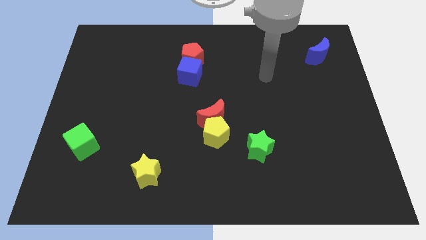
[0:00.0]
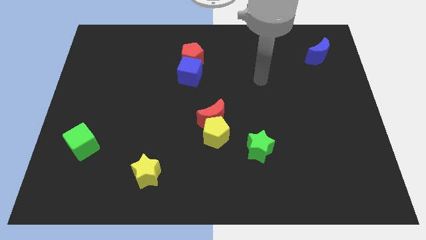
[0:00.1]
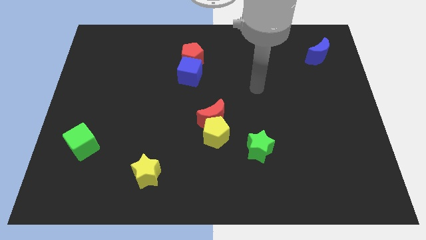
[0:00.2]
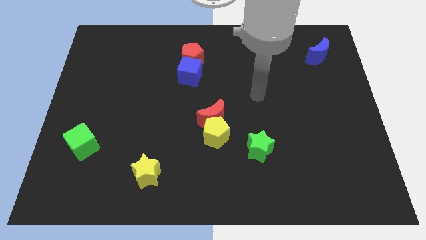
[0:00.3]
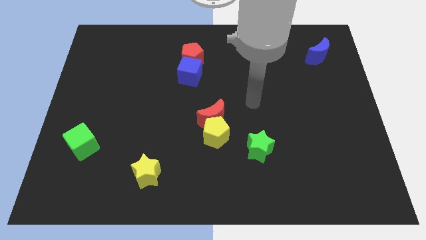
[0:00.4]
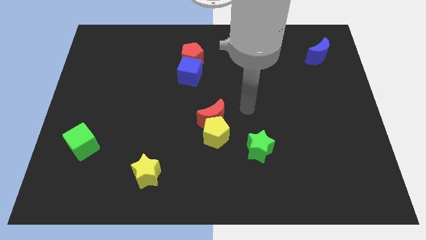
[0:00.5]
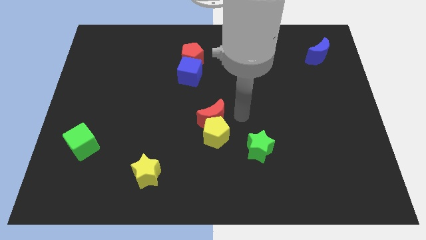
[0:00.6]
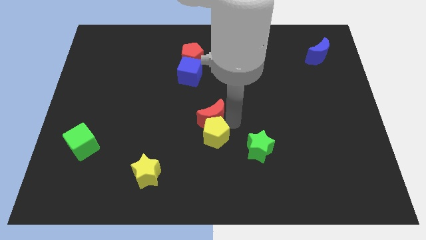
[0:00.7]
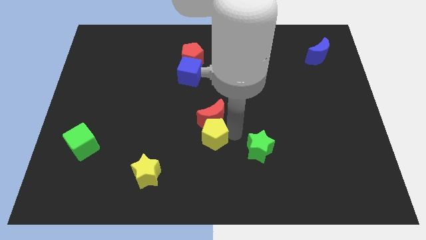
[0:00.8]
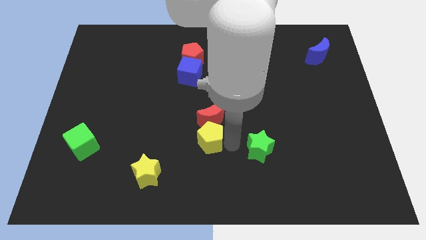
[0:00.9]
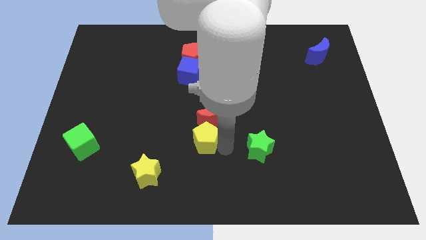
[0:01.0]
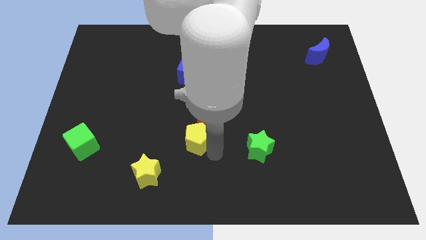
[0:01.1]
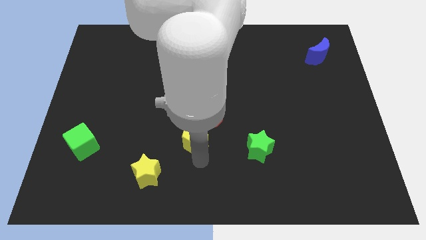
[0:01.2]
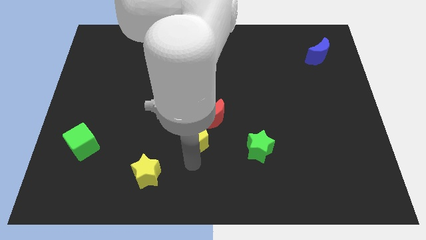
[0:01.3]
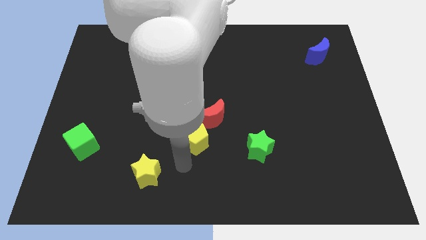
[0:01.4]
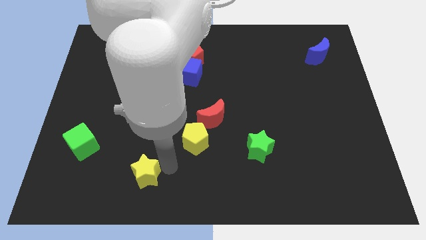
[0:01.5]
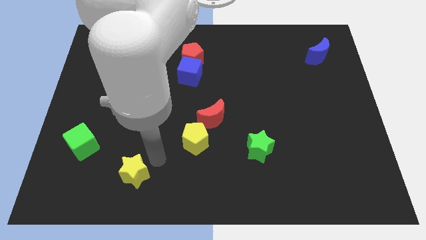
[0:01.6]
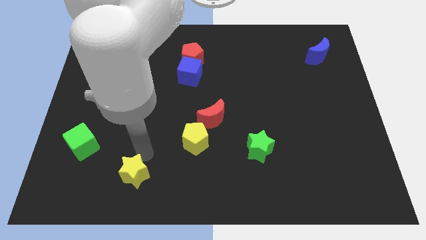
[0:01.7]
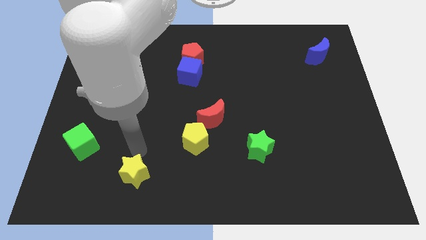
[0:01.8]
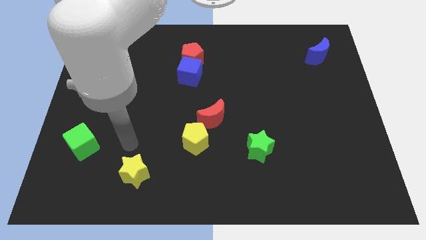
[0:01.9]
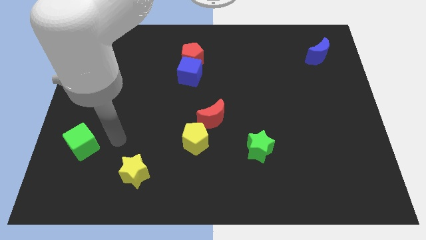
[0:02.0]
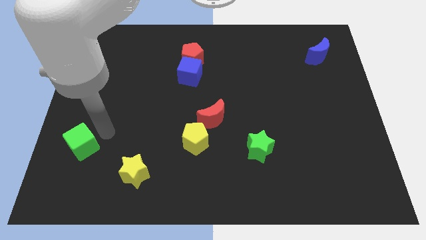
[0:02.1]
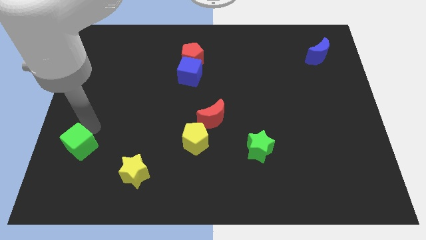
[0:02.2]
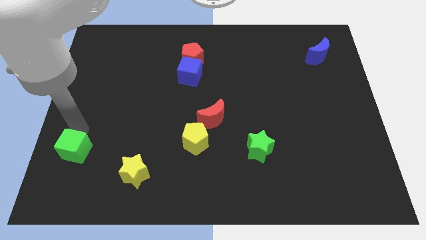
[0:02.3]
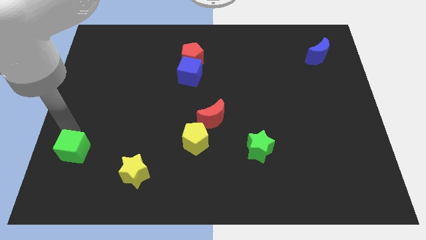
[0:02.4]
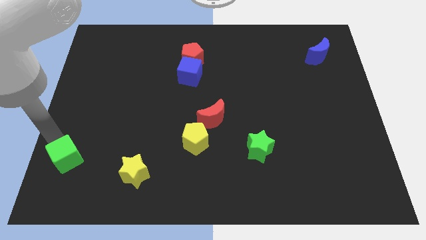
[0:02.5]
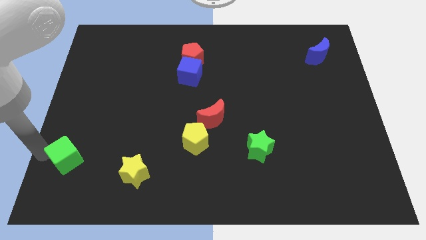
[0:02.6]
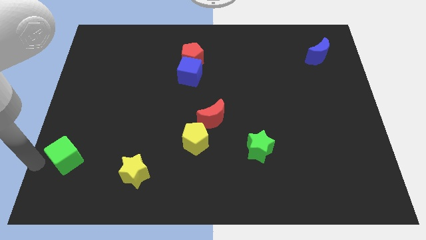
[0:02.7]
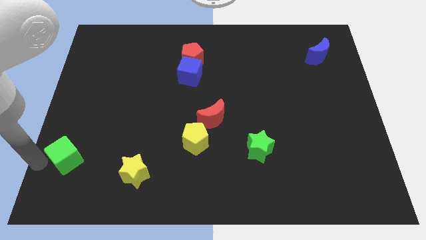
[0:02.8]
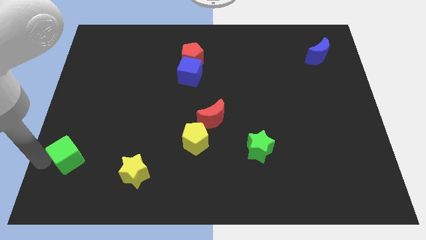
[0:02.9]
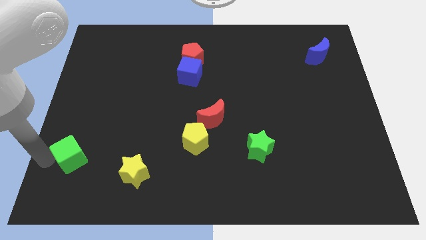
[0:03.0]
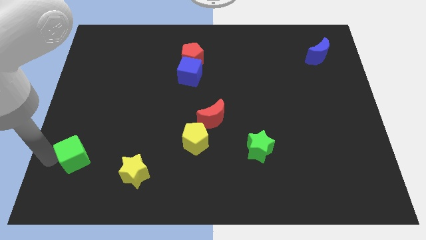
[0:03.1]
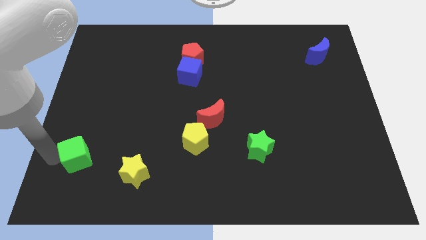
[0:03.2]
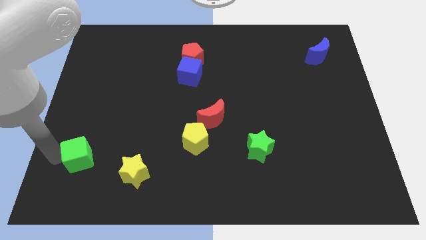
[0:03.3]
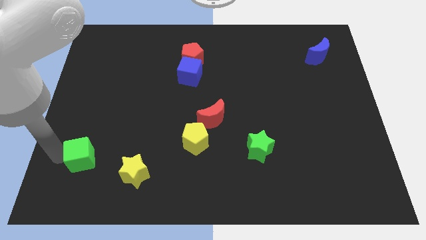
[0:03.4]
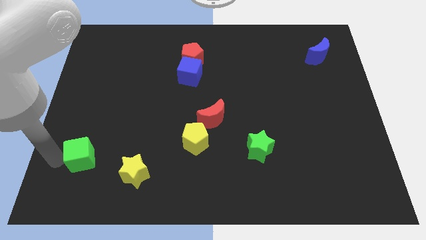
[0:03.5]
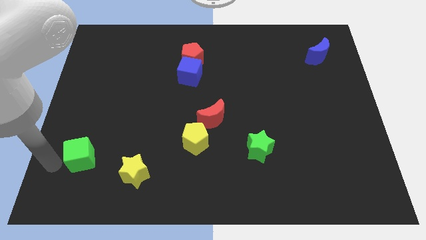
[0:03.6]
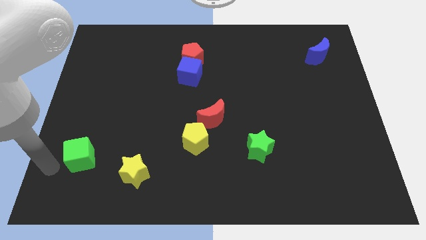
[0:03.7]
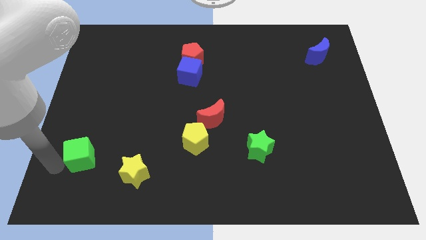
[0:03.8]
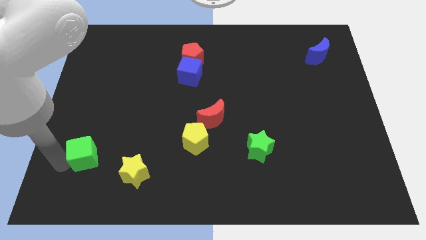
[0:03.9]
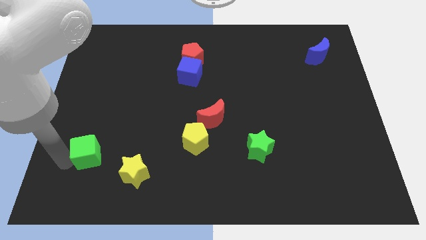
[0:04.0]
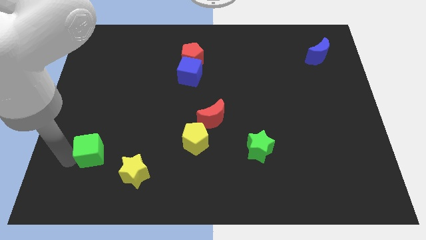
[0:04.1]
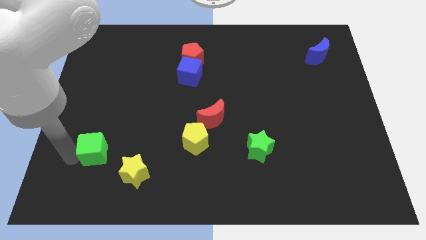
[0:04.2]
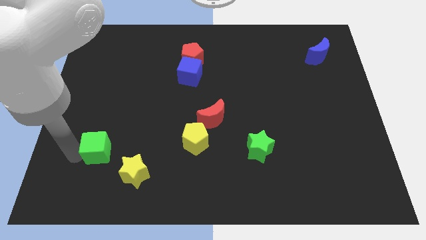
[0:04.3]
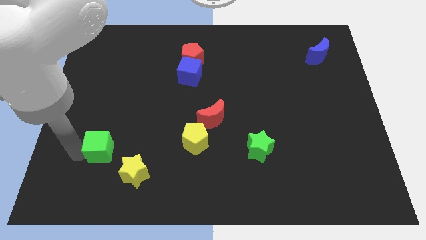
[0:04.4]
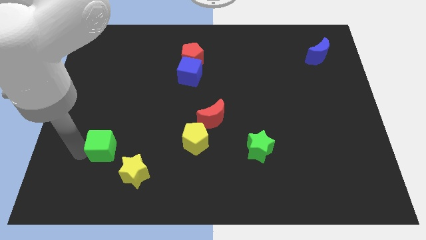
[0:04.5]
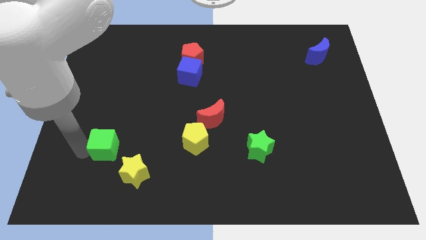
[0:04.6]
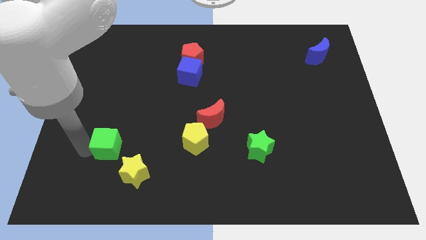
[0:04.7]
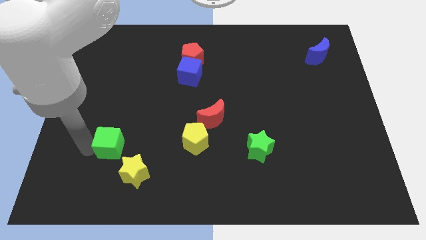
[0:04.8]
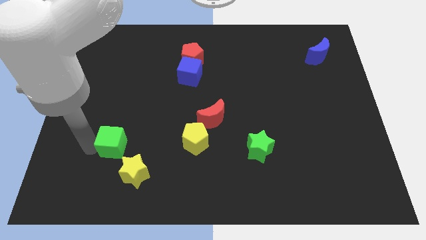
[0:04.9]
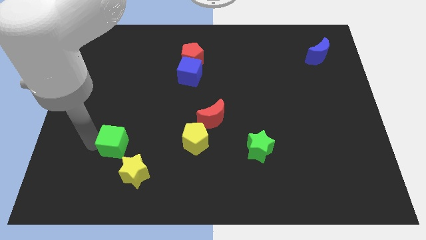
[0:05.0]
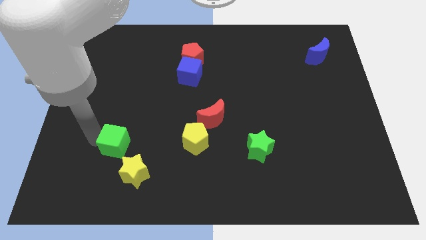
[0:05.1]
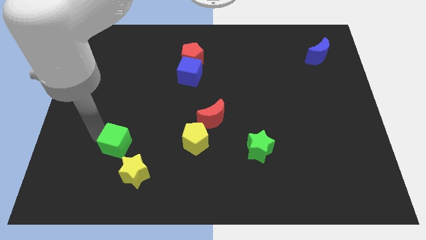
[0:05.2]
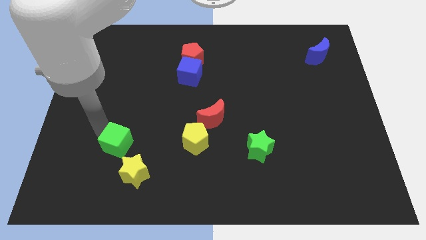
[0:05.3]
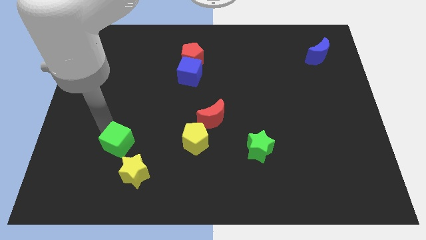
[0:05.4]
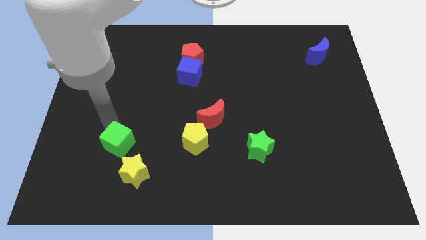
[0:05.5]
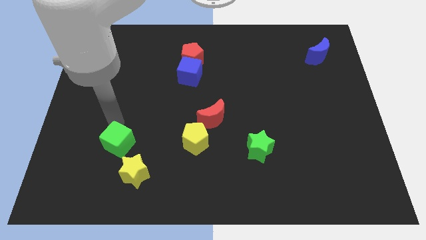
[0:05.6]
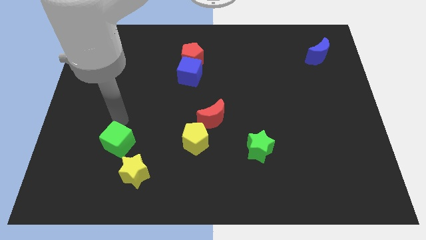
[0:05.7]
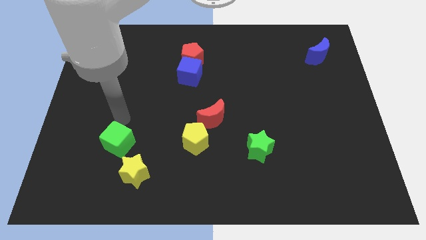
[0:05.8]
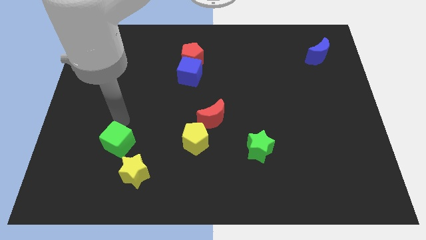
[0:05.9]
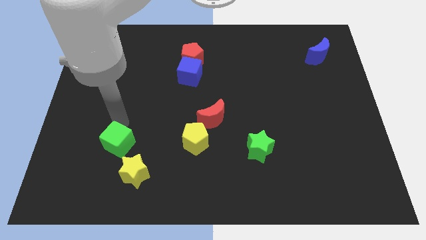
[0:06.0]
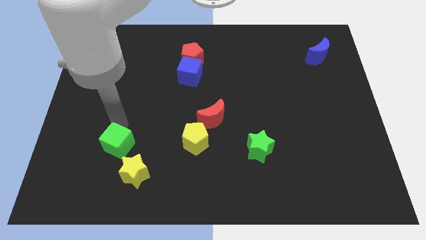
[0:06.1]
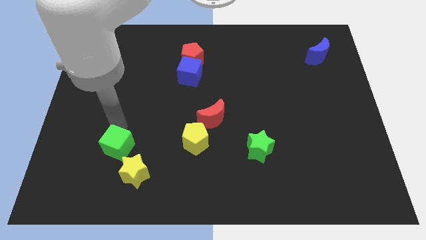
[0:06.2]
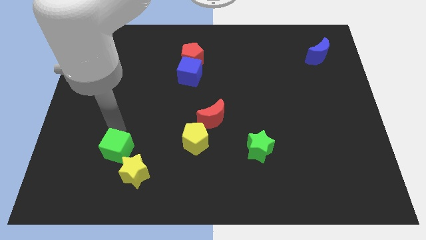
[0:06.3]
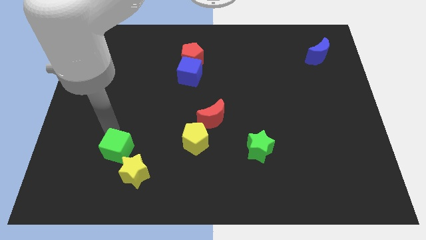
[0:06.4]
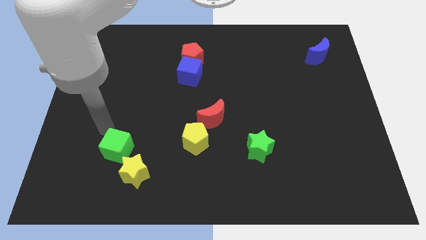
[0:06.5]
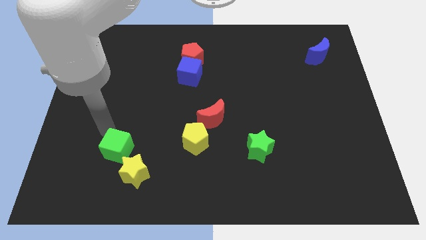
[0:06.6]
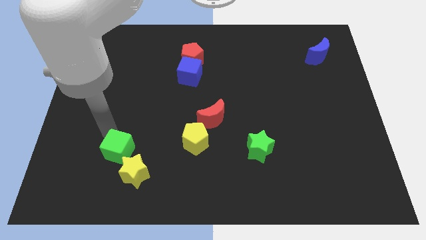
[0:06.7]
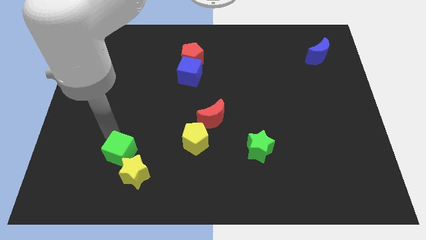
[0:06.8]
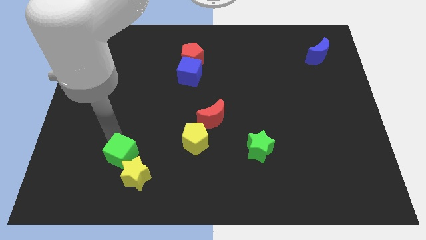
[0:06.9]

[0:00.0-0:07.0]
push the green cube to the yellow star

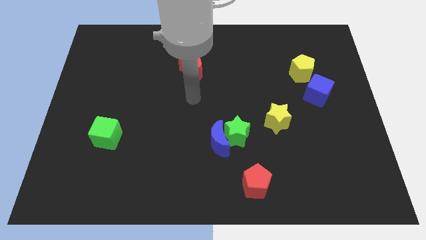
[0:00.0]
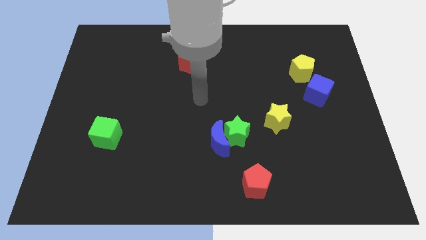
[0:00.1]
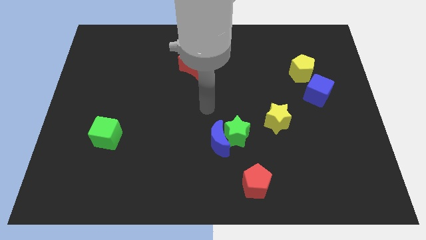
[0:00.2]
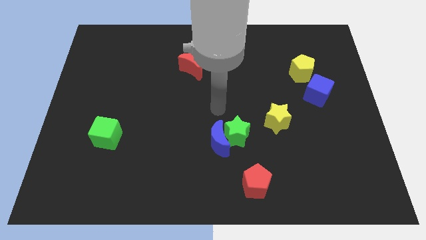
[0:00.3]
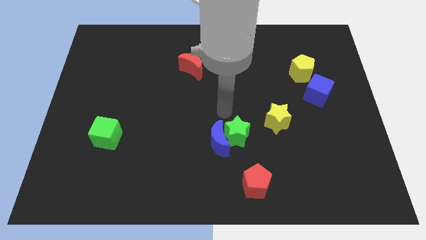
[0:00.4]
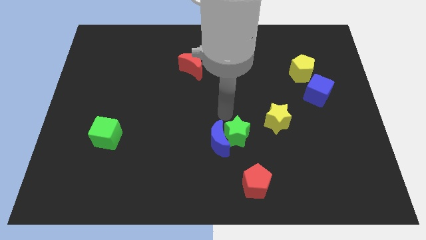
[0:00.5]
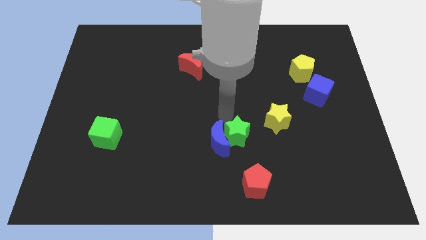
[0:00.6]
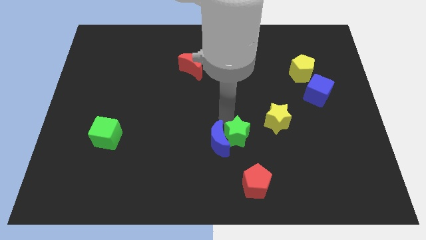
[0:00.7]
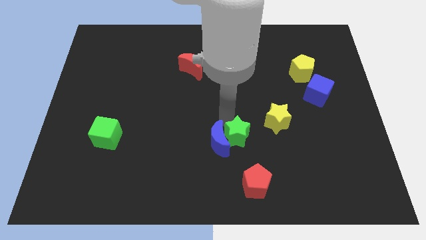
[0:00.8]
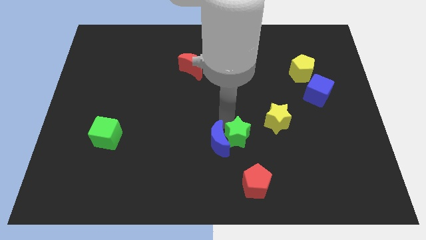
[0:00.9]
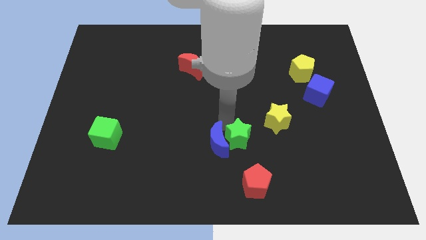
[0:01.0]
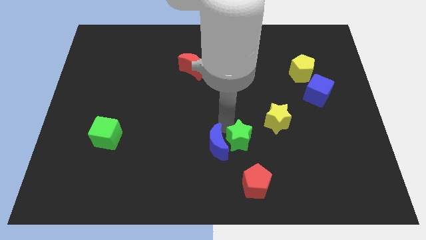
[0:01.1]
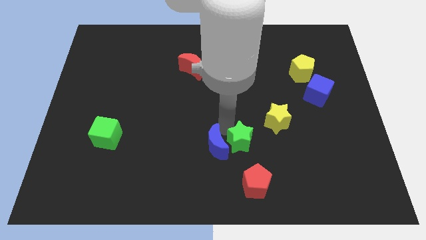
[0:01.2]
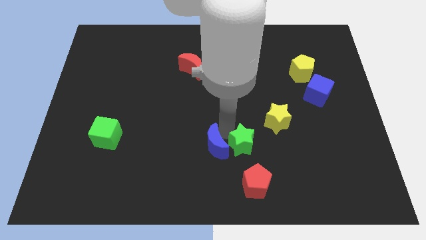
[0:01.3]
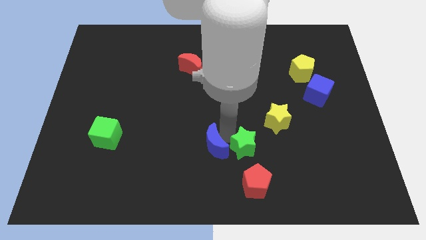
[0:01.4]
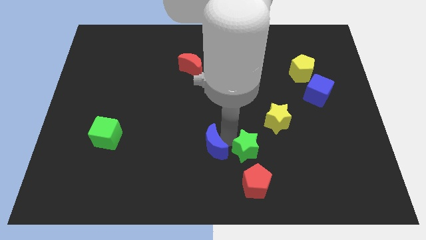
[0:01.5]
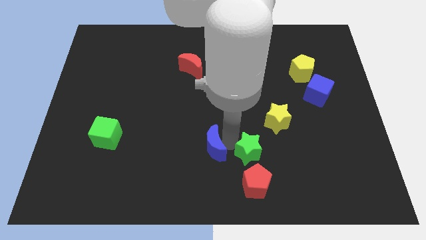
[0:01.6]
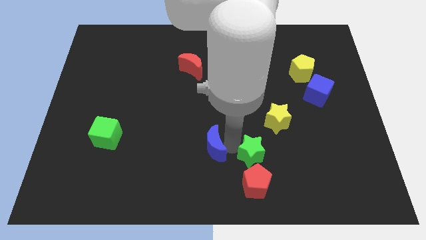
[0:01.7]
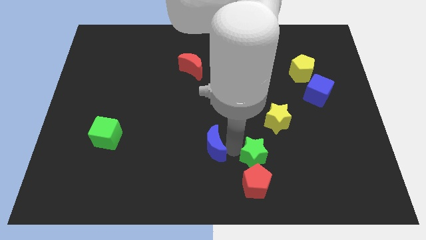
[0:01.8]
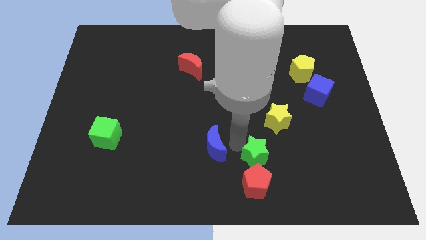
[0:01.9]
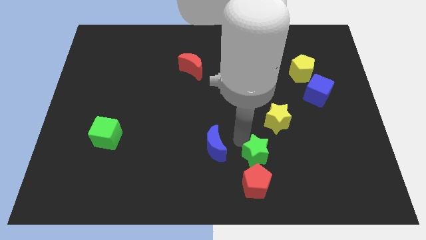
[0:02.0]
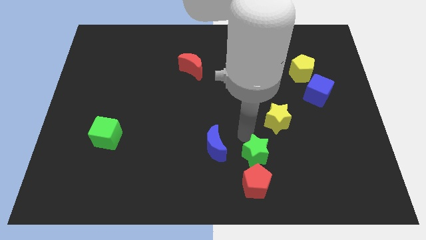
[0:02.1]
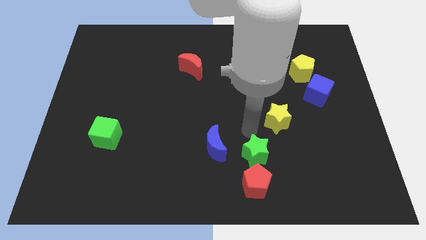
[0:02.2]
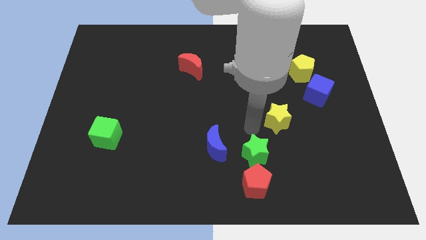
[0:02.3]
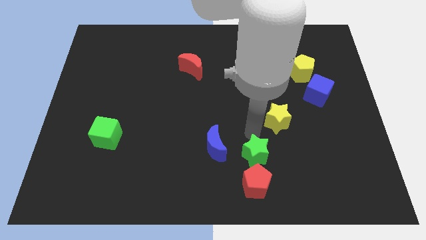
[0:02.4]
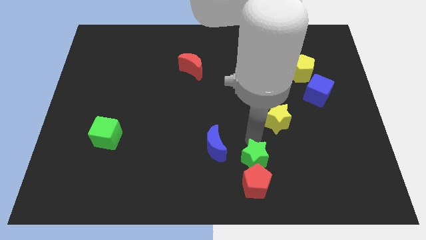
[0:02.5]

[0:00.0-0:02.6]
put the green star next to the red pentagon
